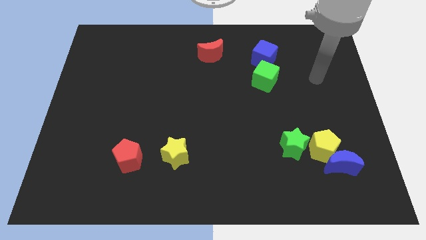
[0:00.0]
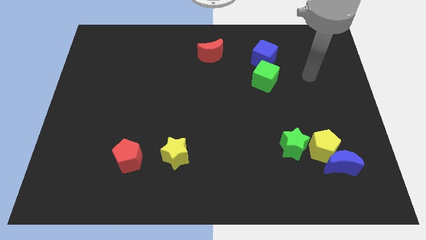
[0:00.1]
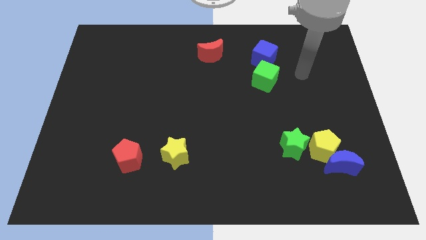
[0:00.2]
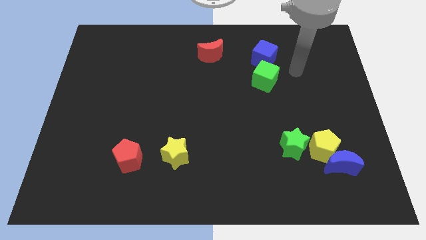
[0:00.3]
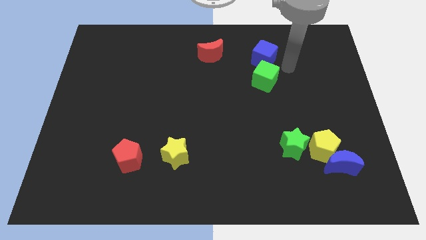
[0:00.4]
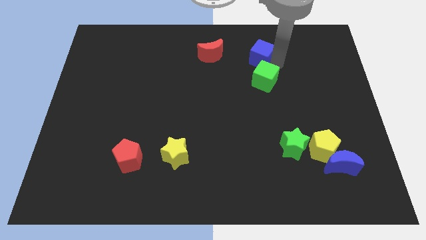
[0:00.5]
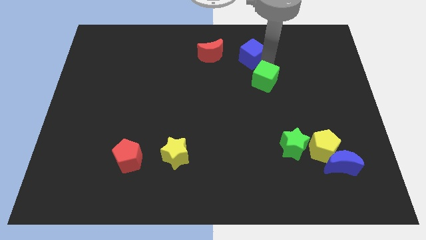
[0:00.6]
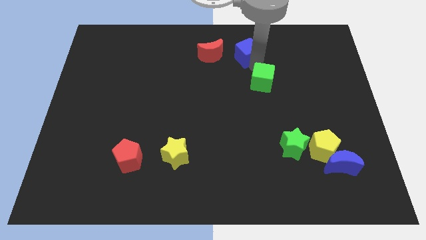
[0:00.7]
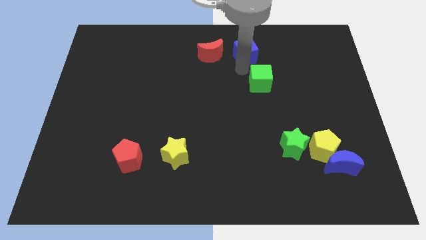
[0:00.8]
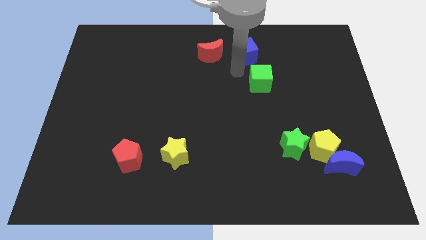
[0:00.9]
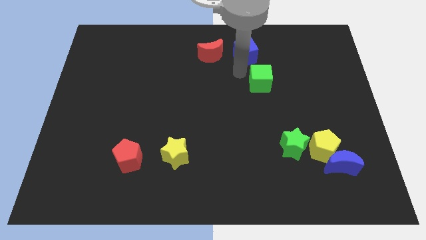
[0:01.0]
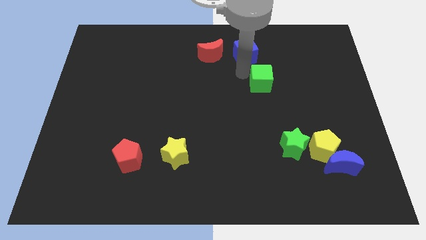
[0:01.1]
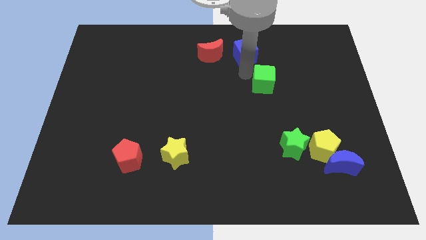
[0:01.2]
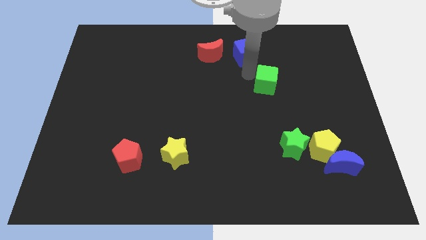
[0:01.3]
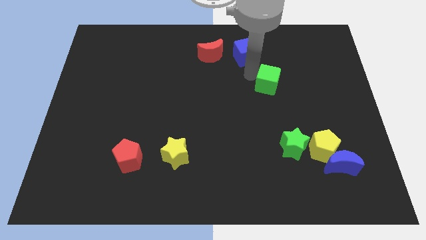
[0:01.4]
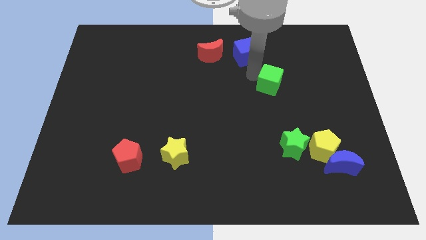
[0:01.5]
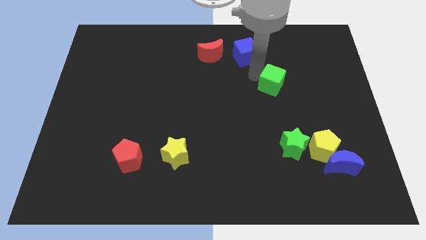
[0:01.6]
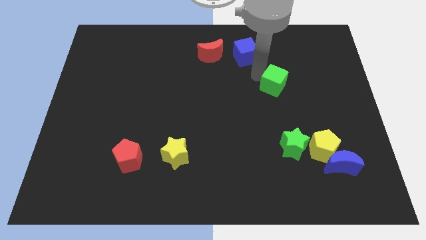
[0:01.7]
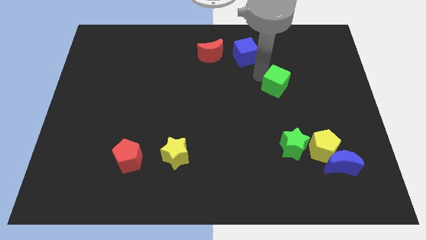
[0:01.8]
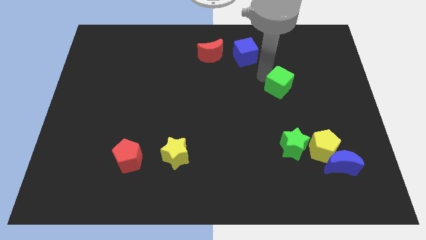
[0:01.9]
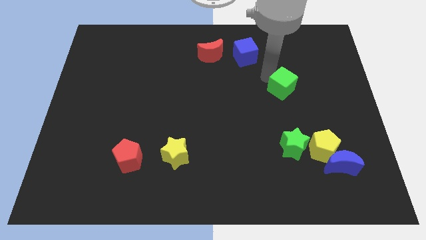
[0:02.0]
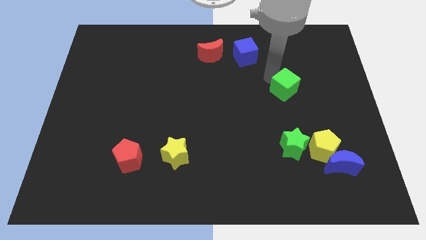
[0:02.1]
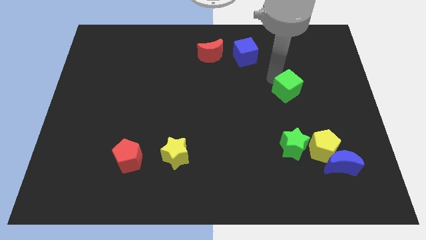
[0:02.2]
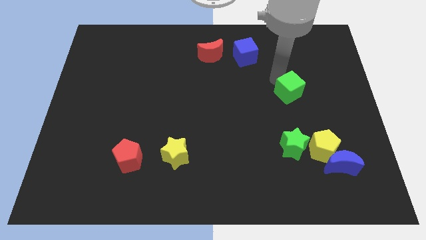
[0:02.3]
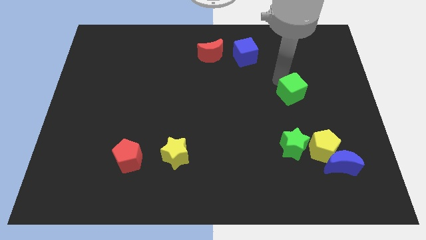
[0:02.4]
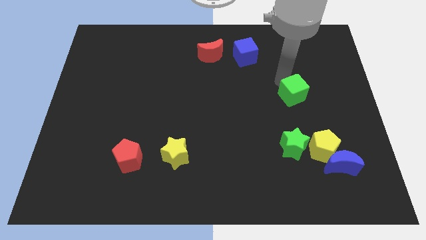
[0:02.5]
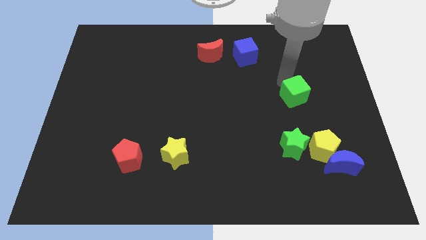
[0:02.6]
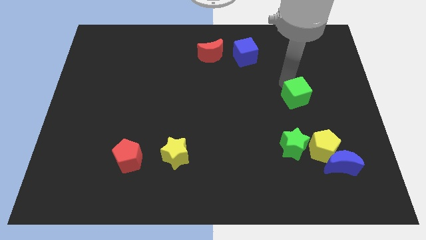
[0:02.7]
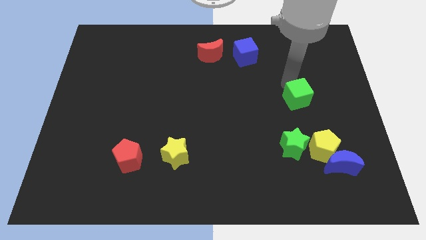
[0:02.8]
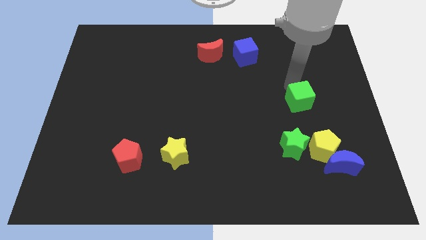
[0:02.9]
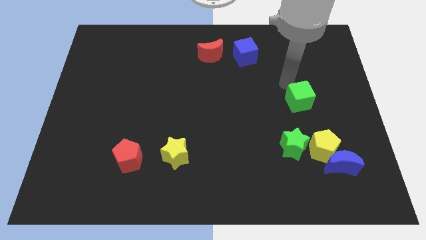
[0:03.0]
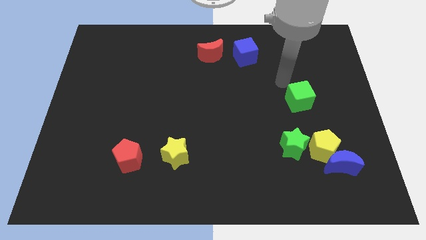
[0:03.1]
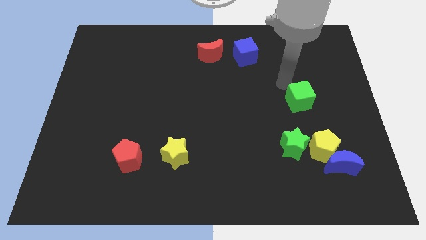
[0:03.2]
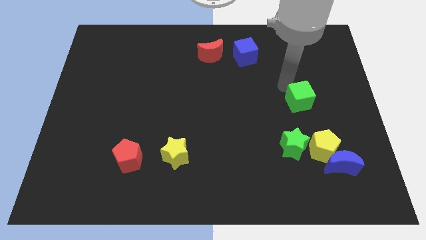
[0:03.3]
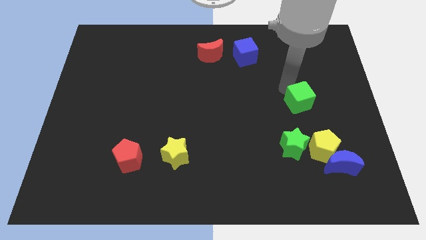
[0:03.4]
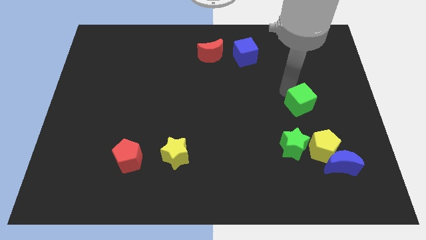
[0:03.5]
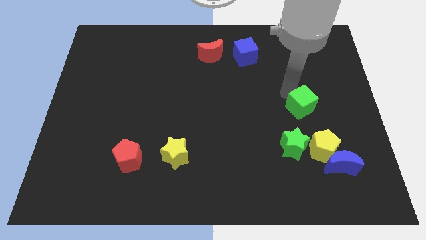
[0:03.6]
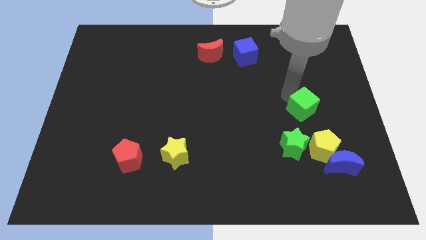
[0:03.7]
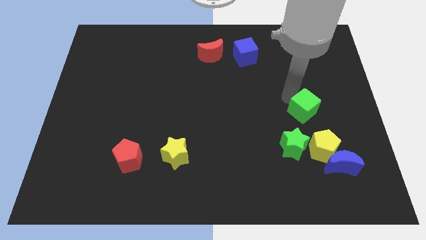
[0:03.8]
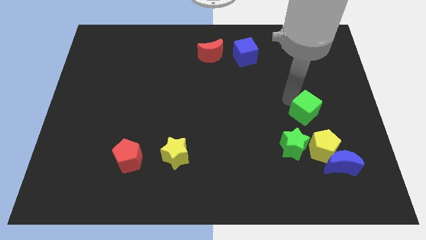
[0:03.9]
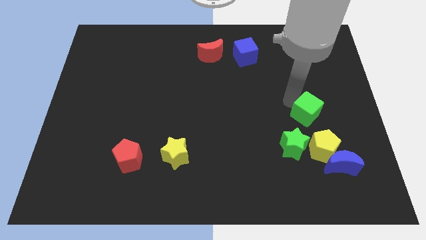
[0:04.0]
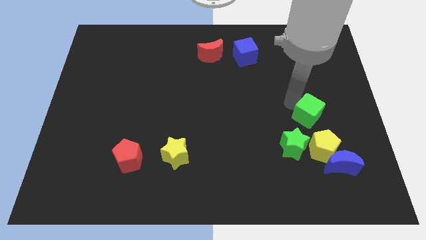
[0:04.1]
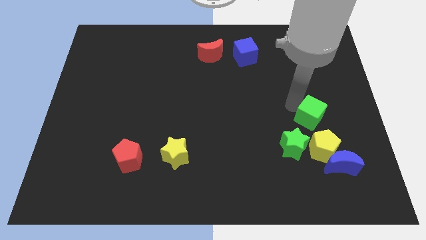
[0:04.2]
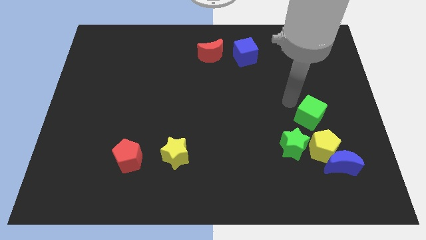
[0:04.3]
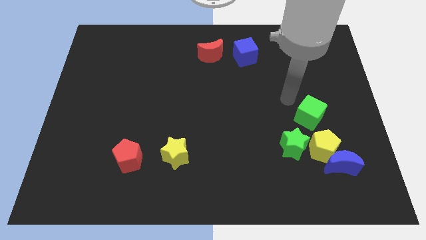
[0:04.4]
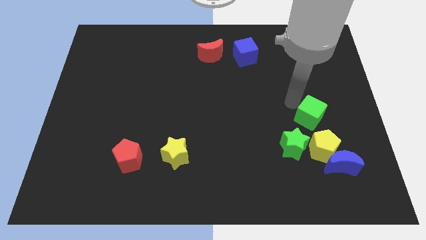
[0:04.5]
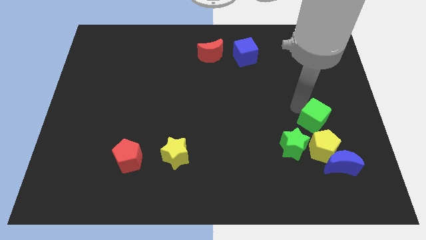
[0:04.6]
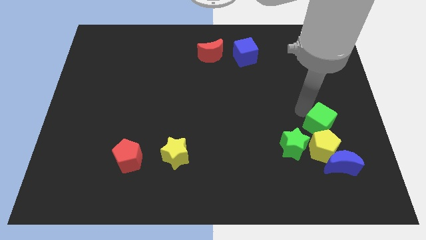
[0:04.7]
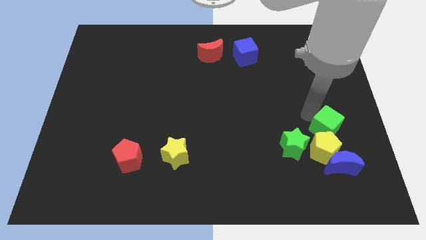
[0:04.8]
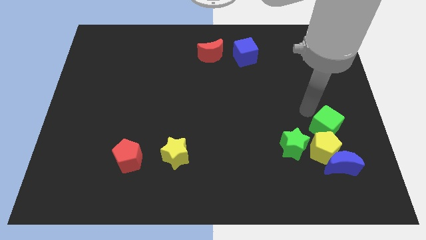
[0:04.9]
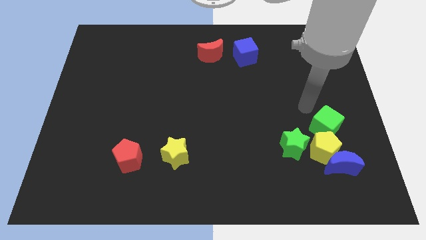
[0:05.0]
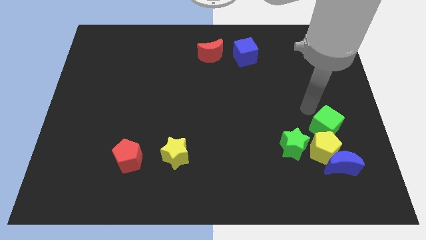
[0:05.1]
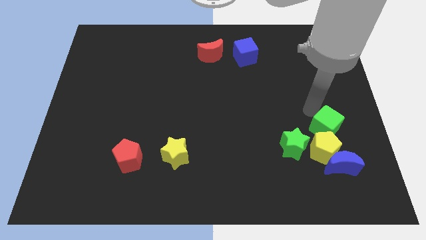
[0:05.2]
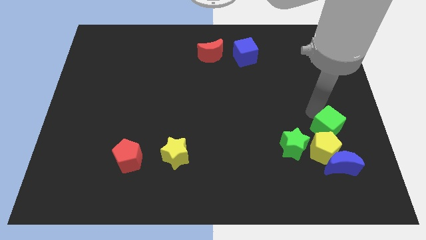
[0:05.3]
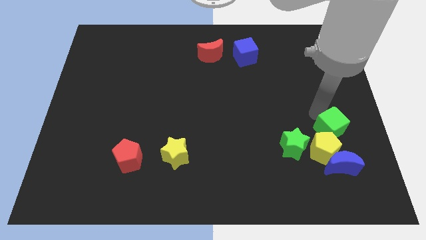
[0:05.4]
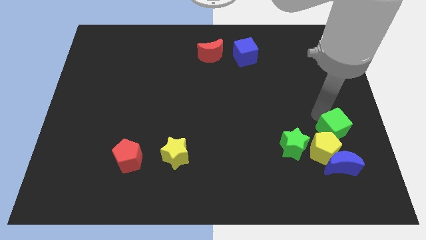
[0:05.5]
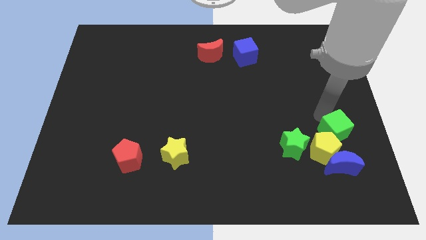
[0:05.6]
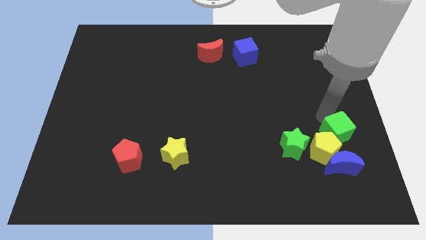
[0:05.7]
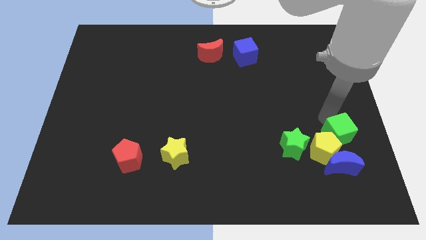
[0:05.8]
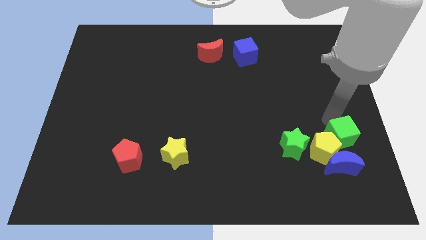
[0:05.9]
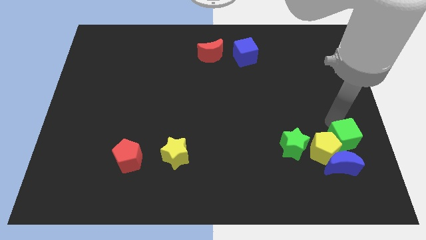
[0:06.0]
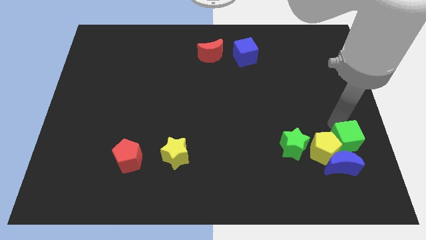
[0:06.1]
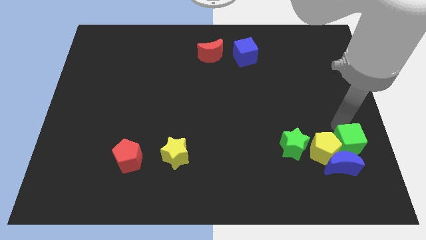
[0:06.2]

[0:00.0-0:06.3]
put the green cube to the blue moon
